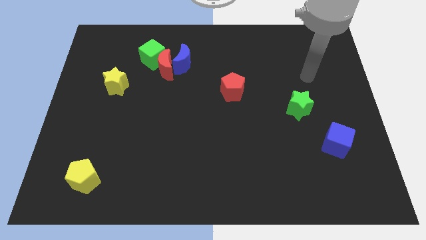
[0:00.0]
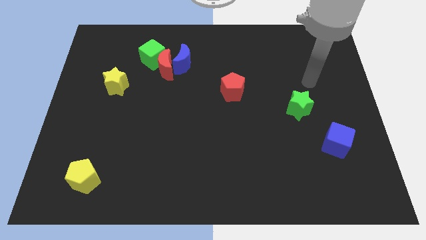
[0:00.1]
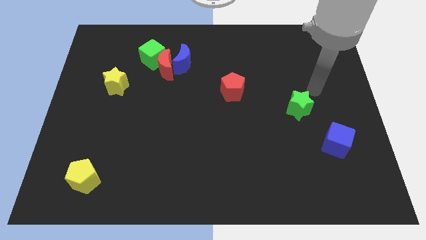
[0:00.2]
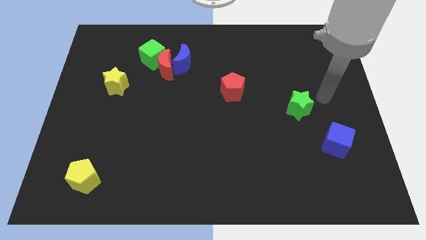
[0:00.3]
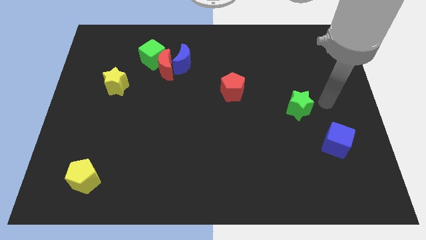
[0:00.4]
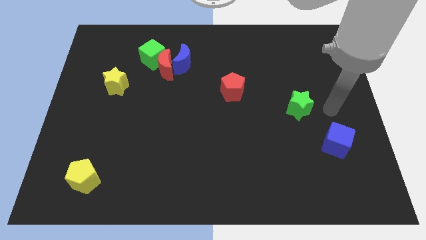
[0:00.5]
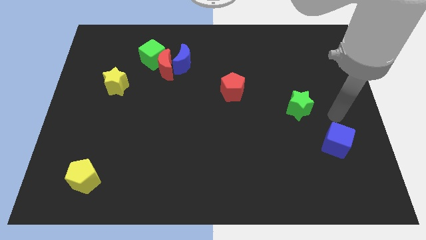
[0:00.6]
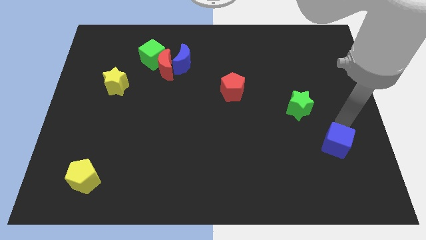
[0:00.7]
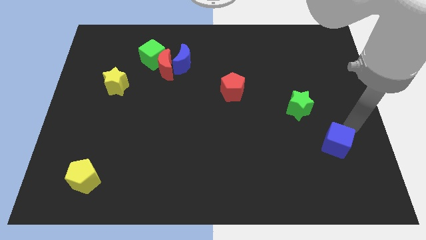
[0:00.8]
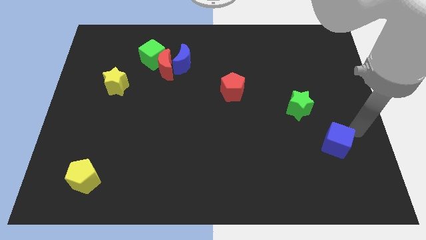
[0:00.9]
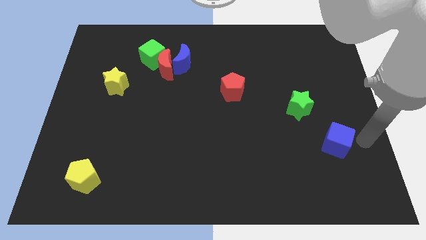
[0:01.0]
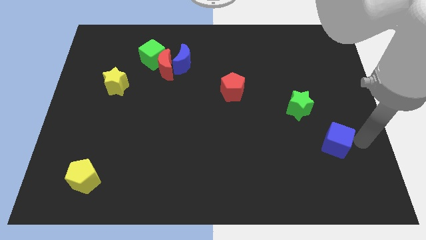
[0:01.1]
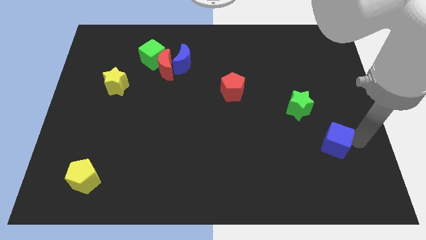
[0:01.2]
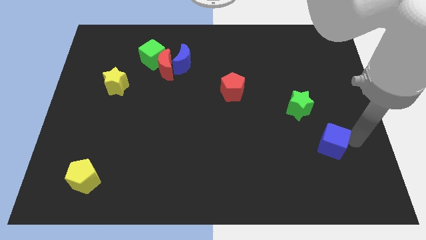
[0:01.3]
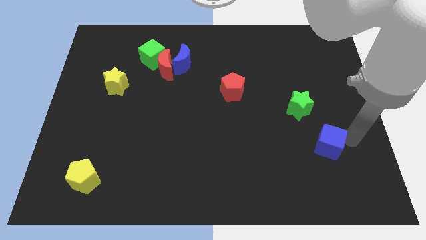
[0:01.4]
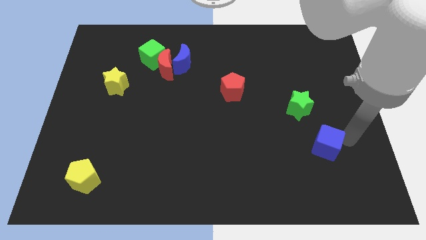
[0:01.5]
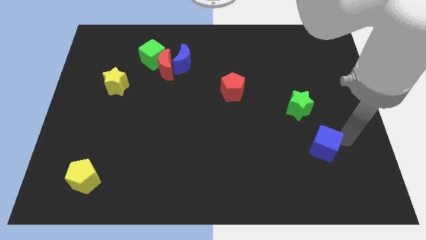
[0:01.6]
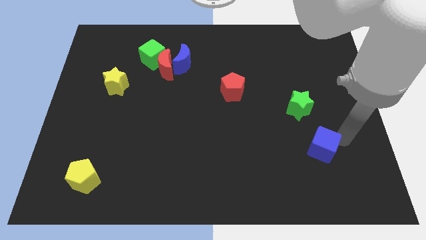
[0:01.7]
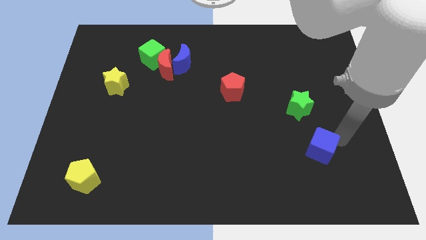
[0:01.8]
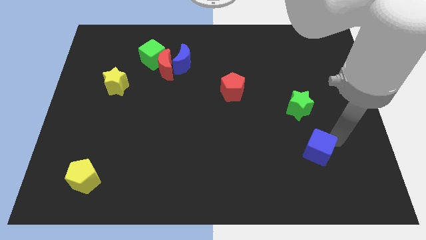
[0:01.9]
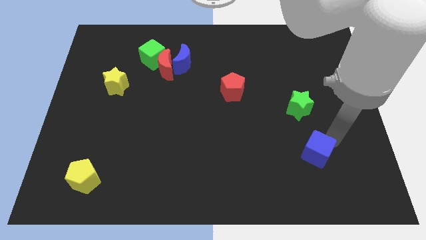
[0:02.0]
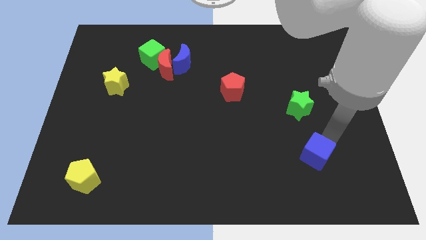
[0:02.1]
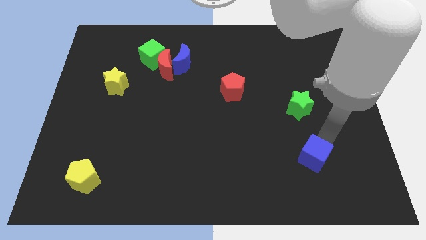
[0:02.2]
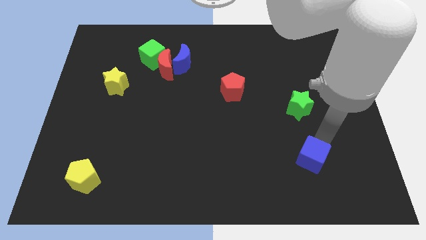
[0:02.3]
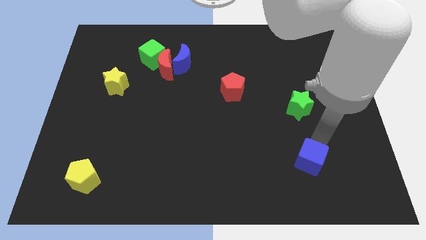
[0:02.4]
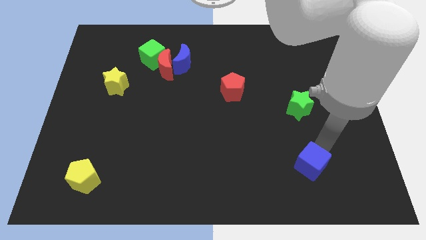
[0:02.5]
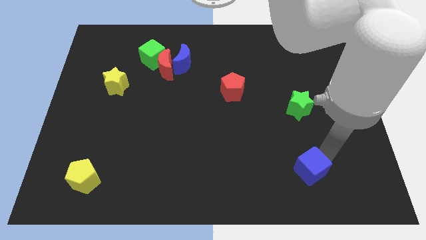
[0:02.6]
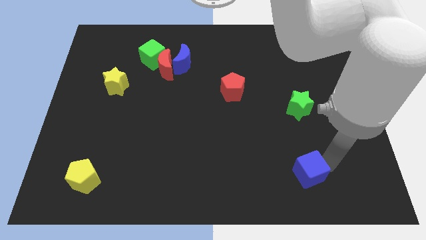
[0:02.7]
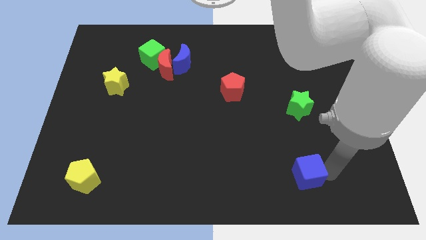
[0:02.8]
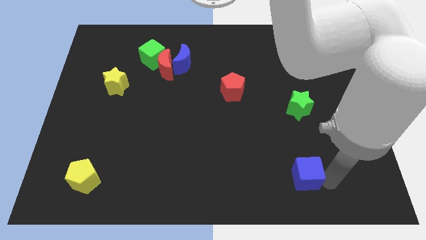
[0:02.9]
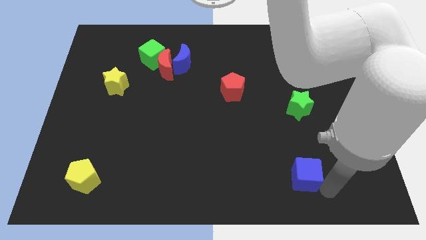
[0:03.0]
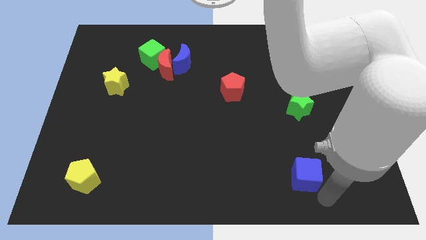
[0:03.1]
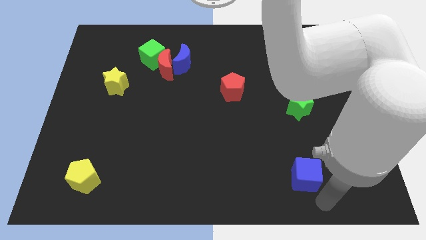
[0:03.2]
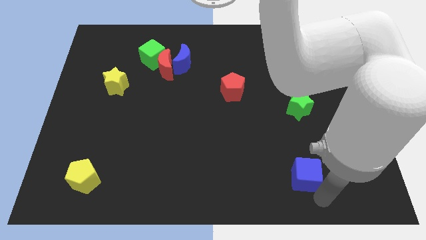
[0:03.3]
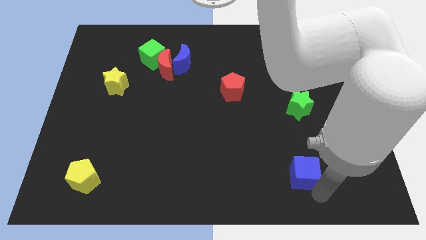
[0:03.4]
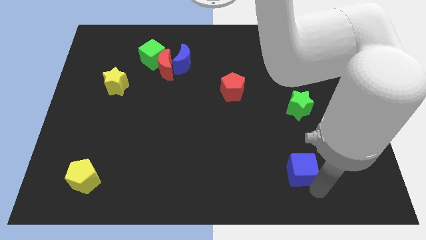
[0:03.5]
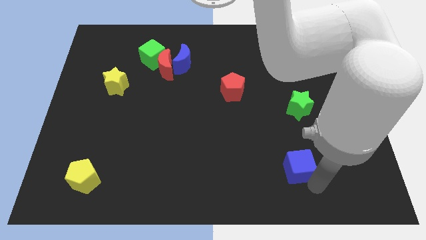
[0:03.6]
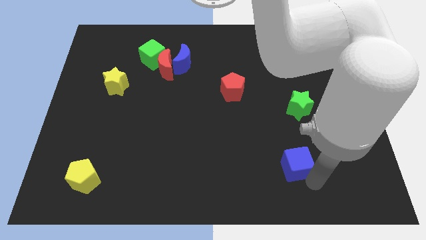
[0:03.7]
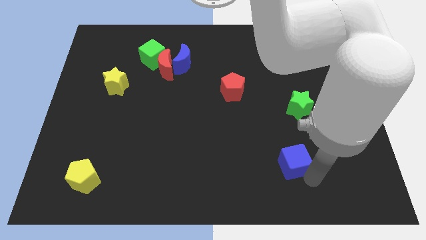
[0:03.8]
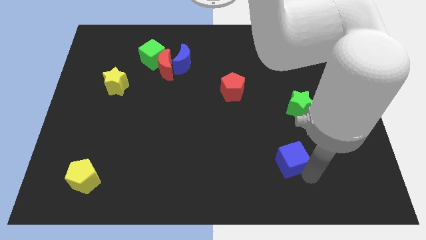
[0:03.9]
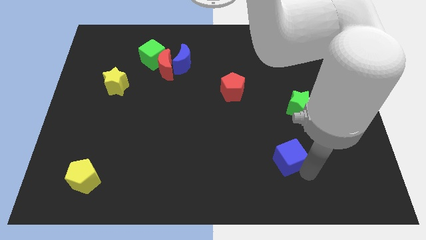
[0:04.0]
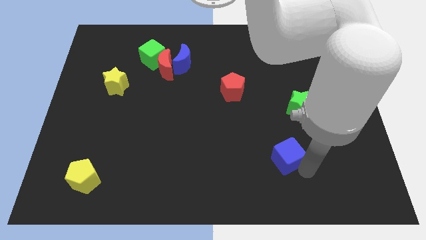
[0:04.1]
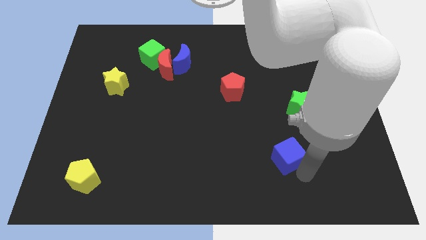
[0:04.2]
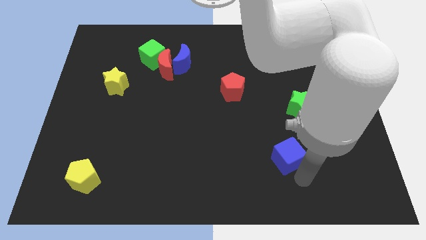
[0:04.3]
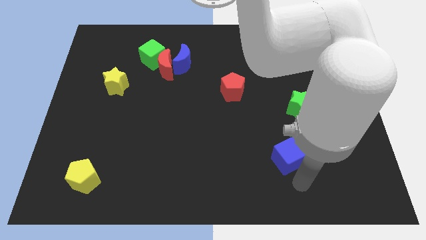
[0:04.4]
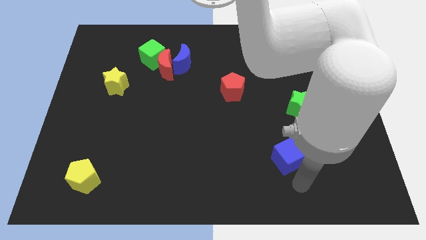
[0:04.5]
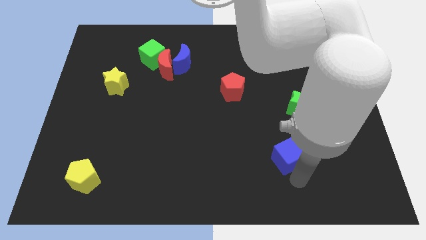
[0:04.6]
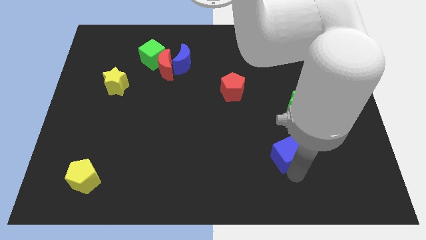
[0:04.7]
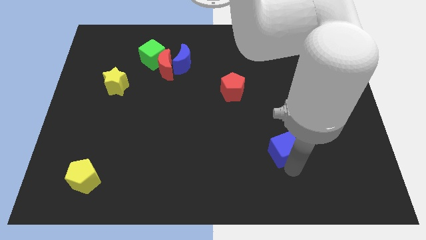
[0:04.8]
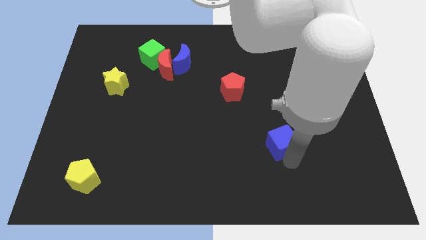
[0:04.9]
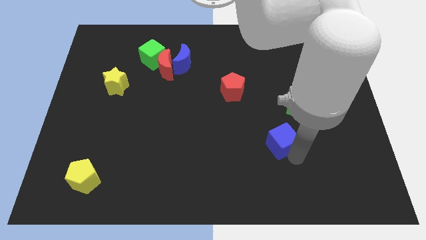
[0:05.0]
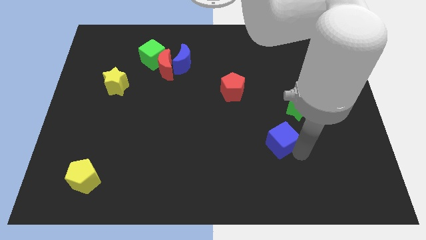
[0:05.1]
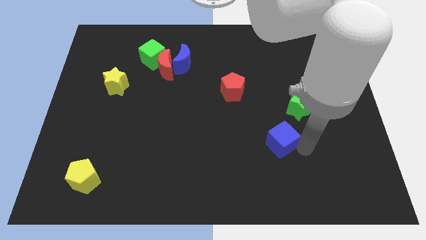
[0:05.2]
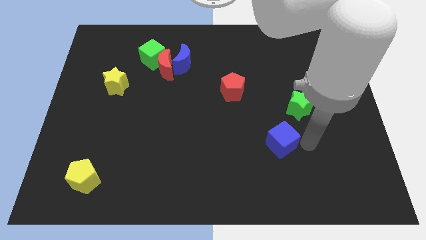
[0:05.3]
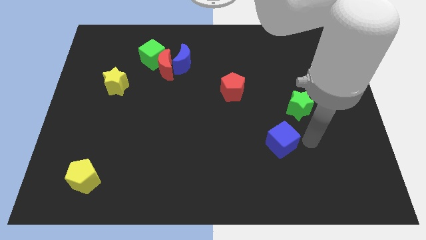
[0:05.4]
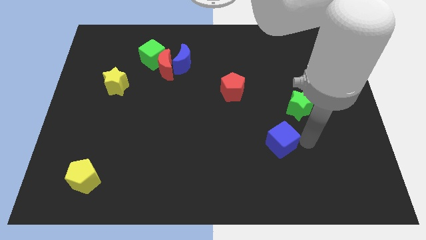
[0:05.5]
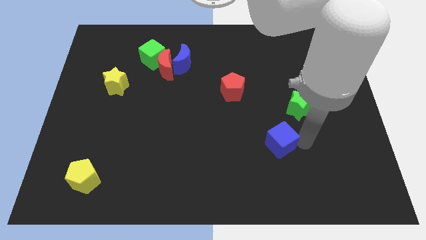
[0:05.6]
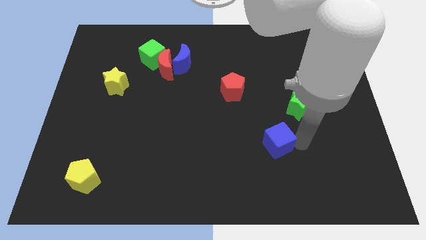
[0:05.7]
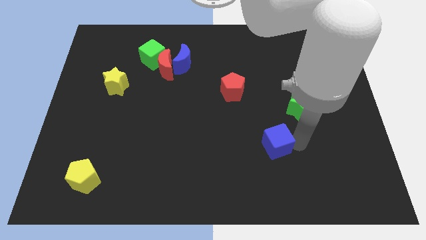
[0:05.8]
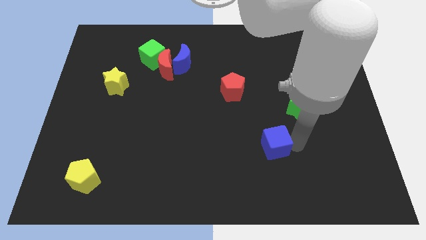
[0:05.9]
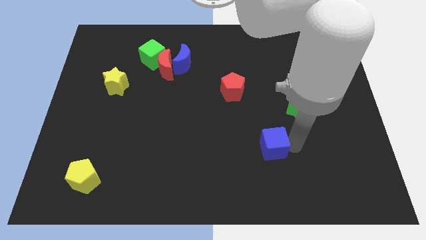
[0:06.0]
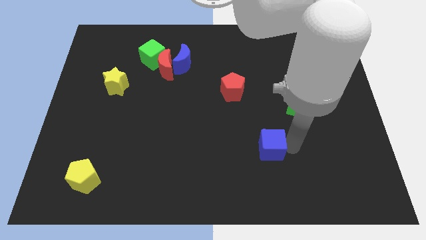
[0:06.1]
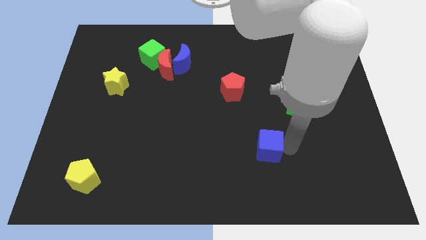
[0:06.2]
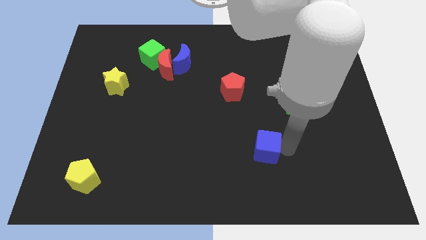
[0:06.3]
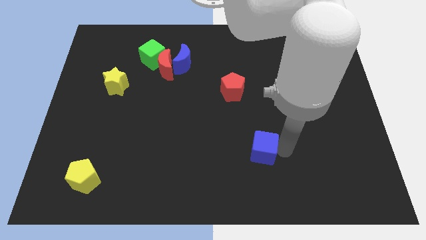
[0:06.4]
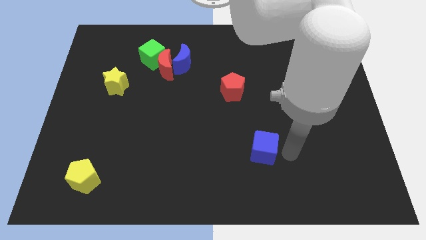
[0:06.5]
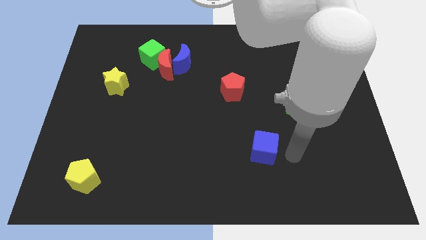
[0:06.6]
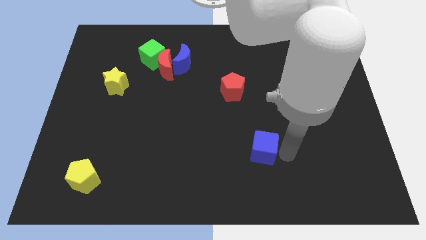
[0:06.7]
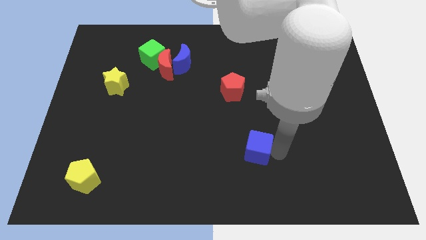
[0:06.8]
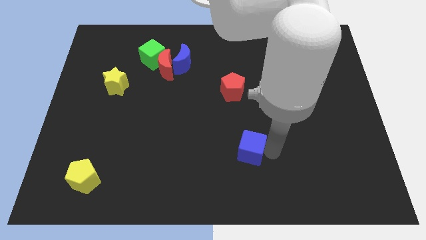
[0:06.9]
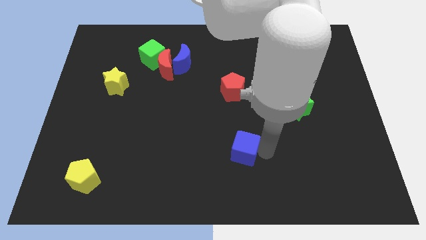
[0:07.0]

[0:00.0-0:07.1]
push the blue cube left

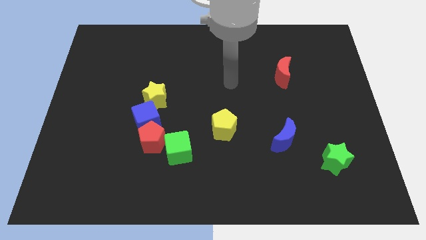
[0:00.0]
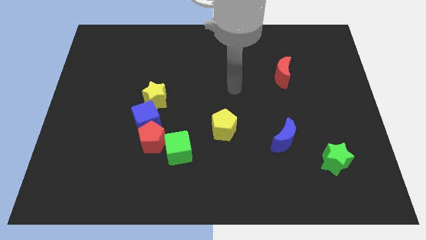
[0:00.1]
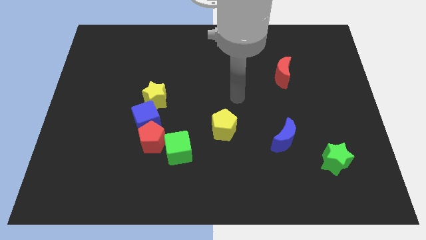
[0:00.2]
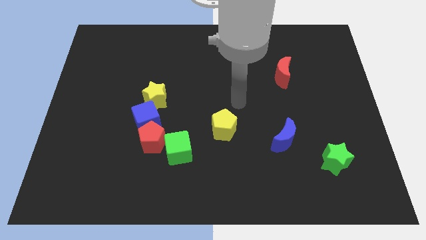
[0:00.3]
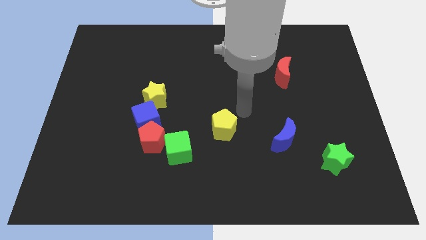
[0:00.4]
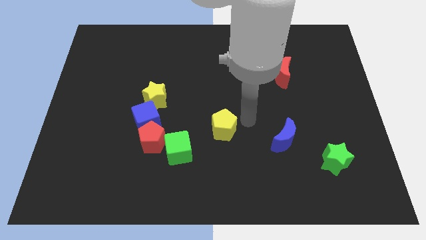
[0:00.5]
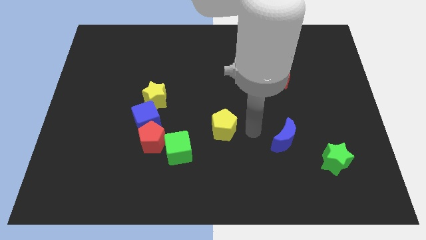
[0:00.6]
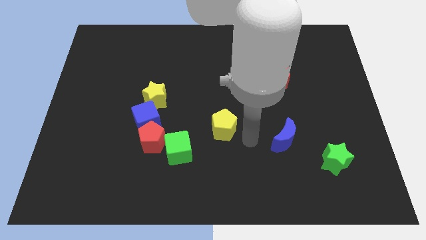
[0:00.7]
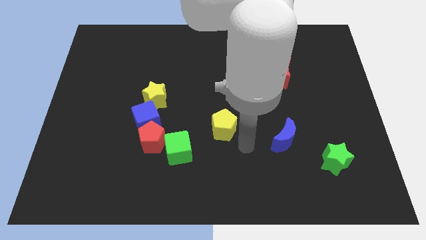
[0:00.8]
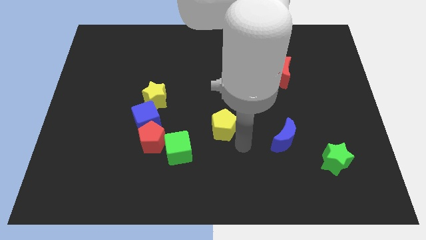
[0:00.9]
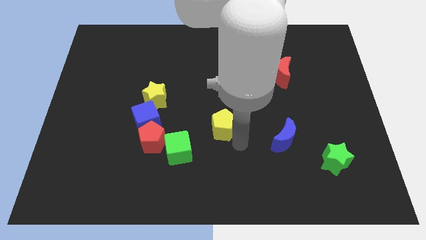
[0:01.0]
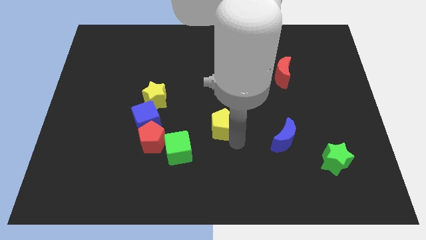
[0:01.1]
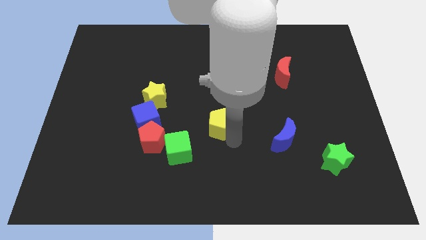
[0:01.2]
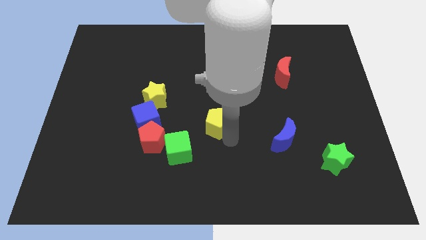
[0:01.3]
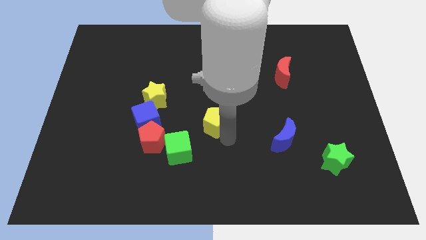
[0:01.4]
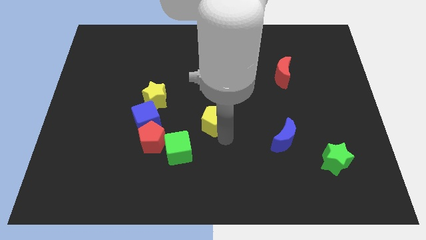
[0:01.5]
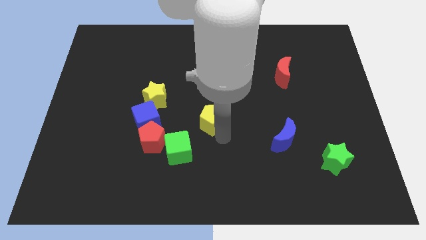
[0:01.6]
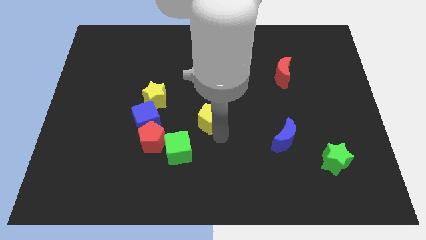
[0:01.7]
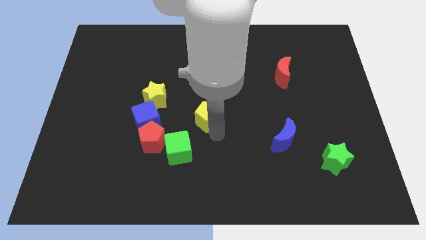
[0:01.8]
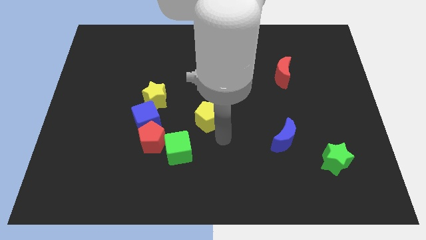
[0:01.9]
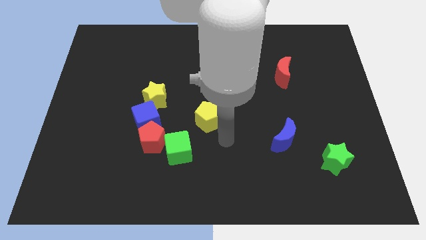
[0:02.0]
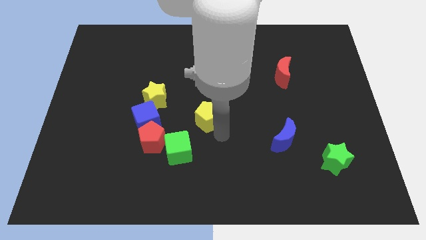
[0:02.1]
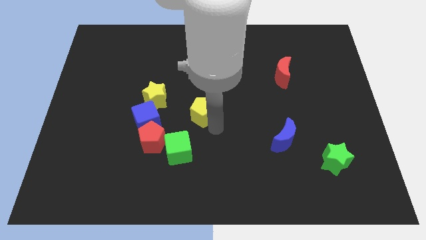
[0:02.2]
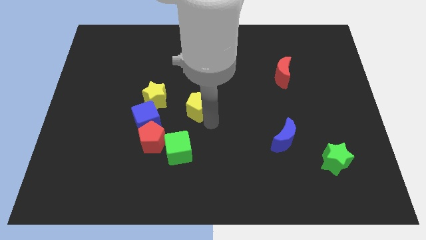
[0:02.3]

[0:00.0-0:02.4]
slightly slide the yellow pentagon diagonally up and to the left
